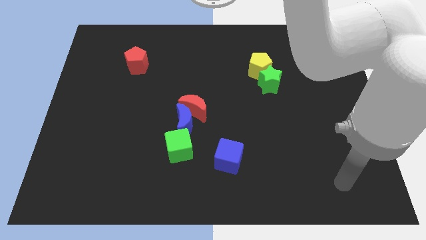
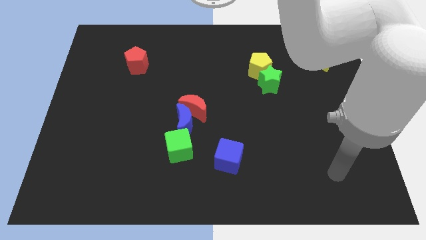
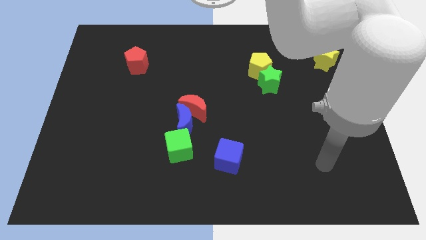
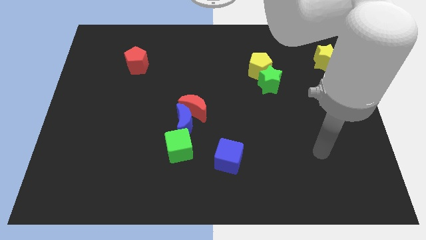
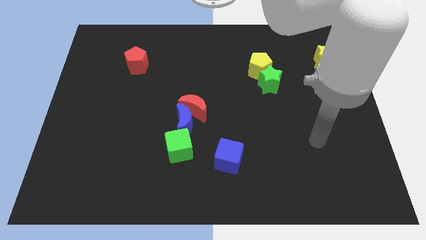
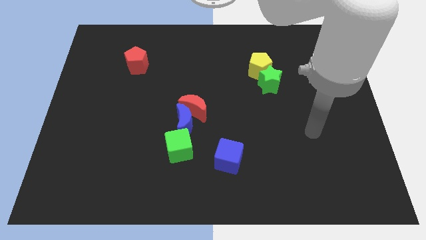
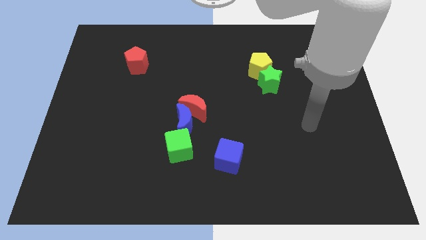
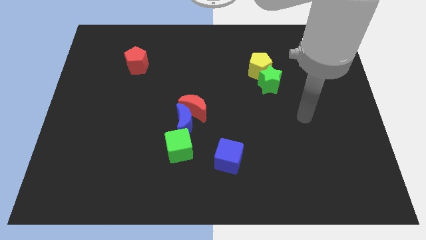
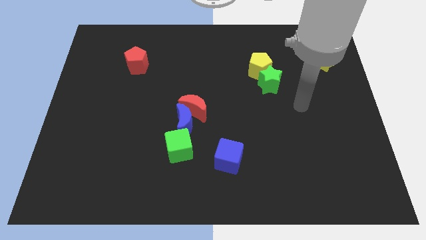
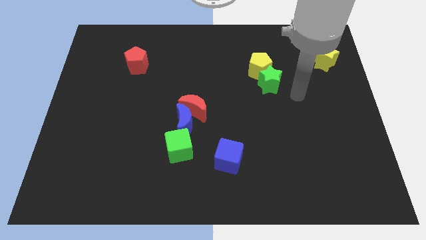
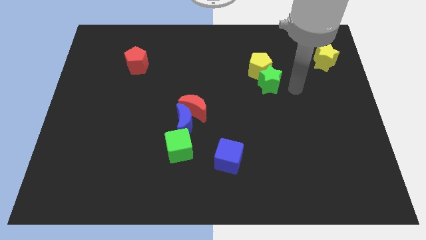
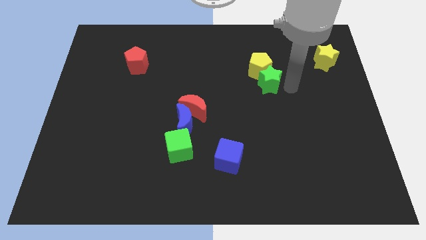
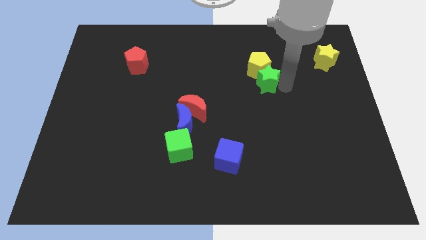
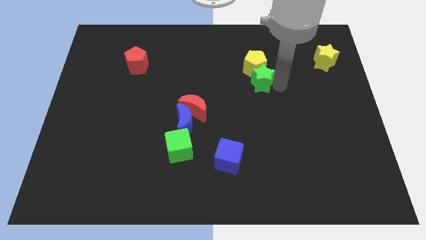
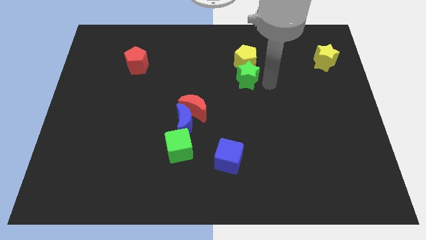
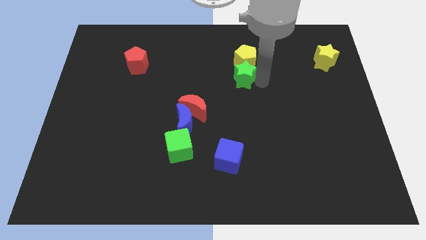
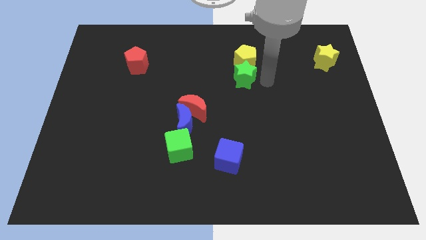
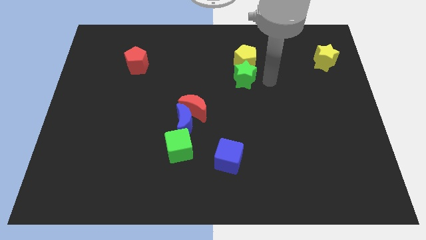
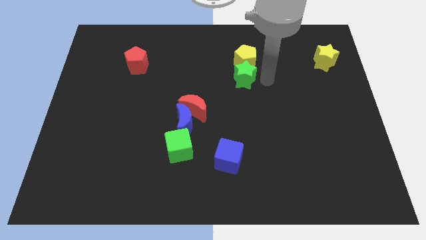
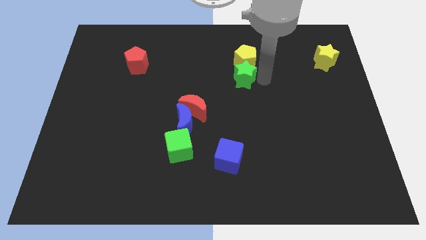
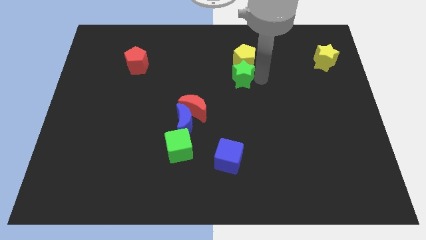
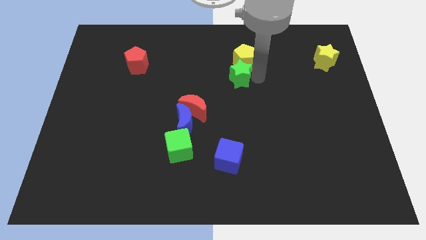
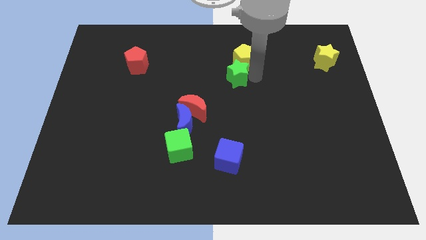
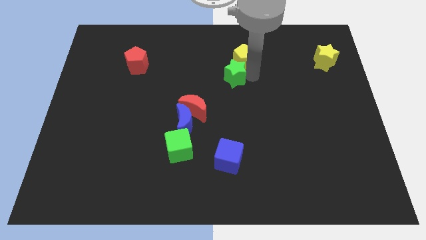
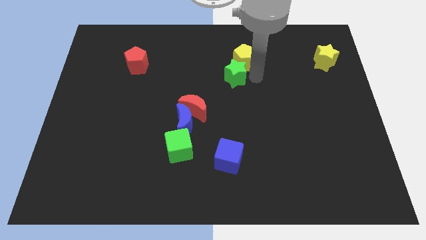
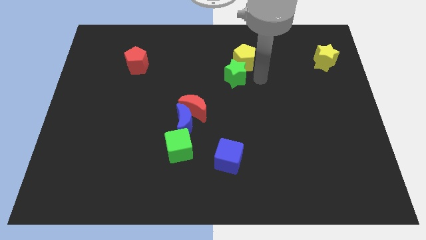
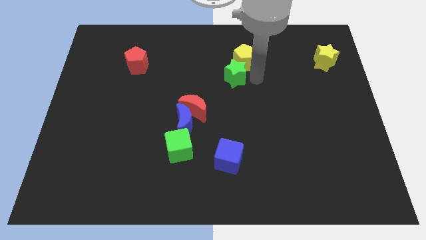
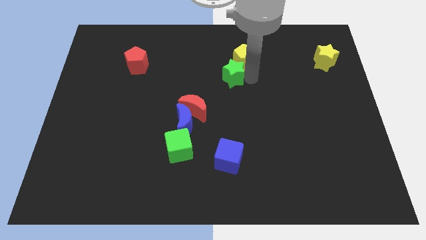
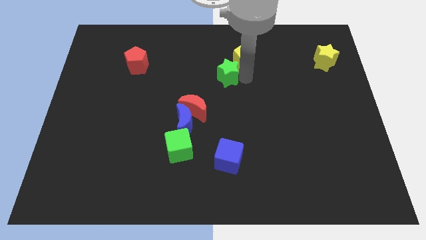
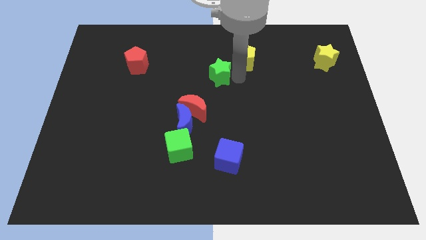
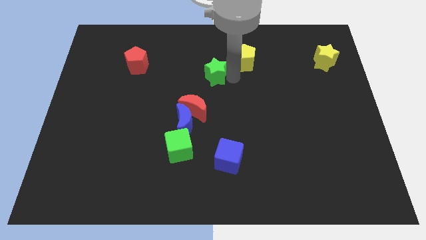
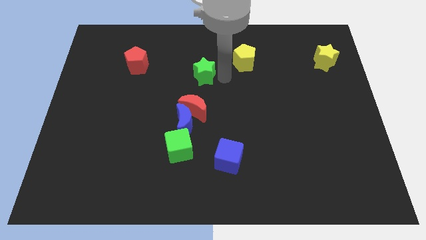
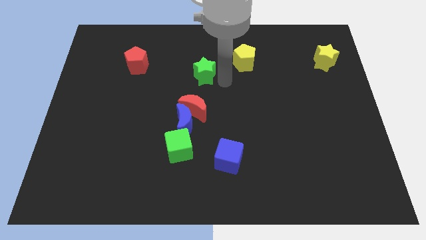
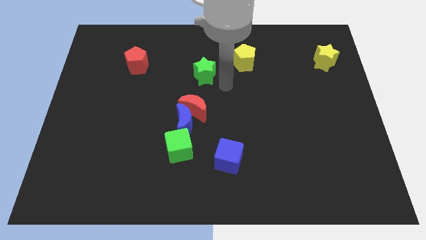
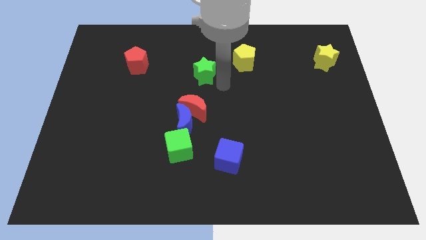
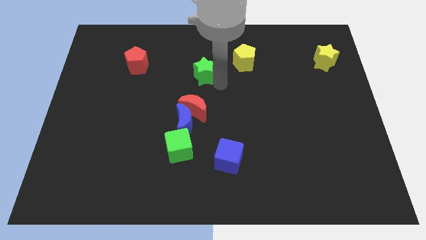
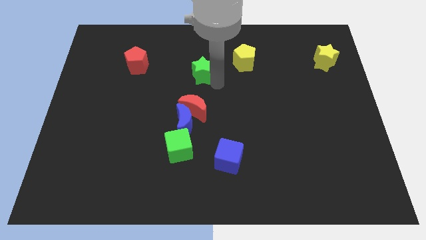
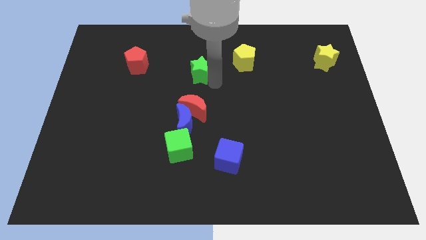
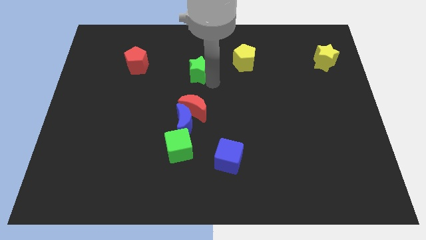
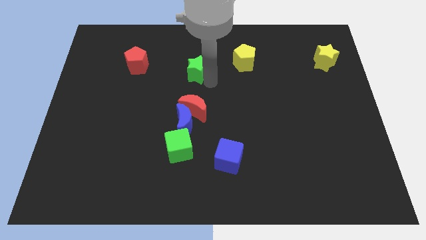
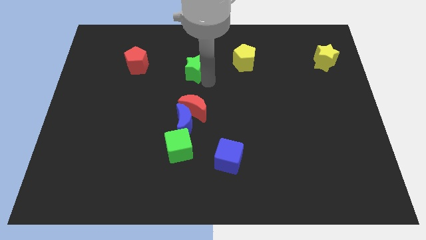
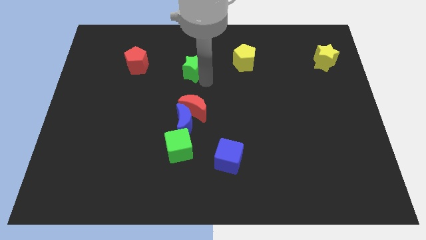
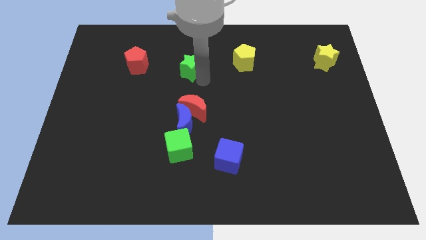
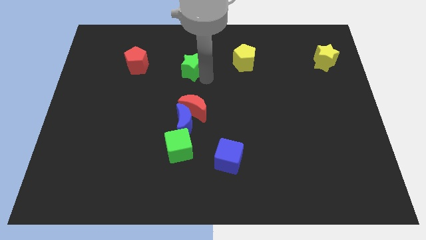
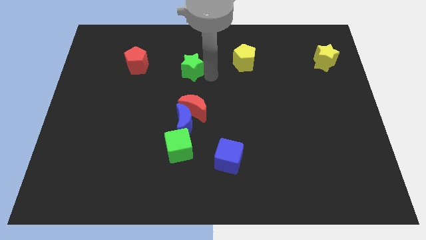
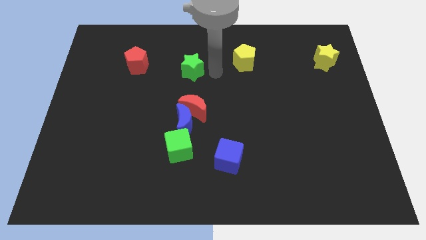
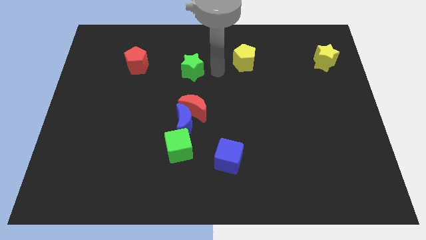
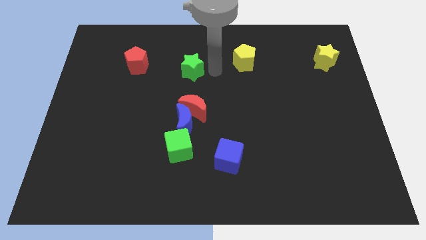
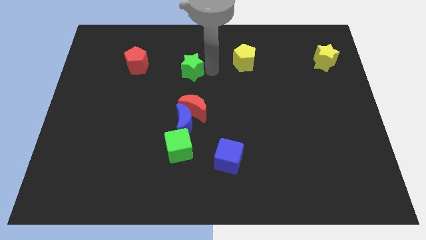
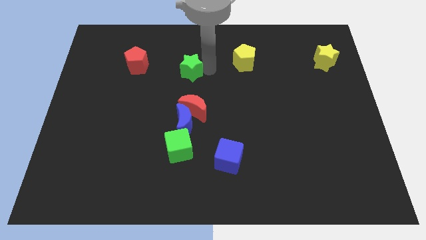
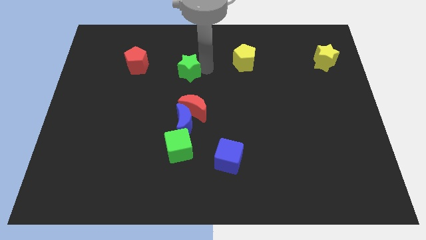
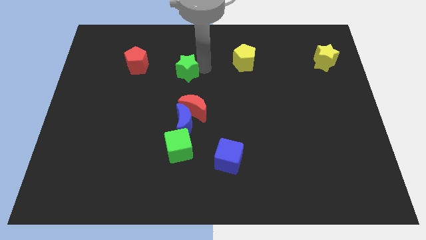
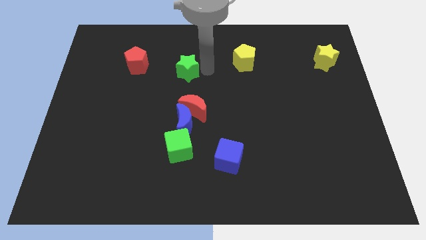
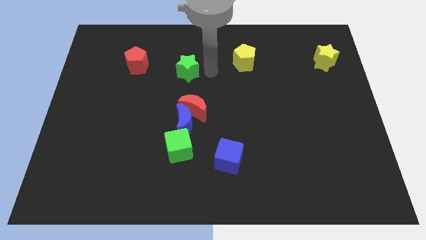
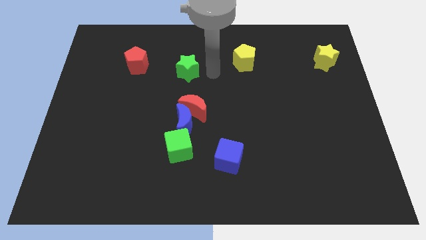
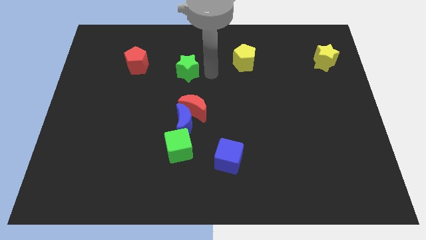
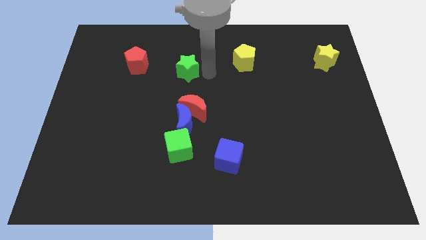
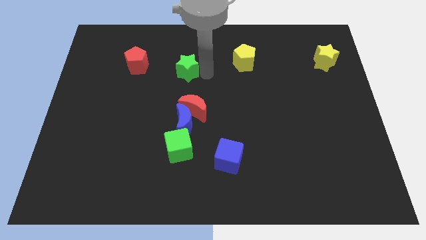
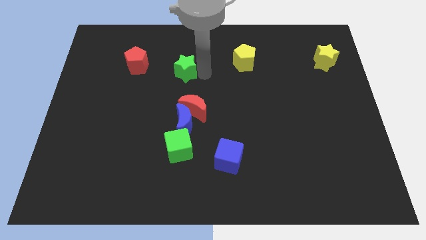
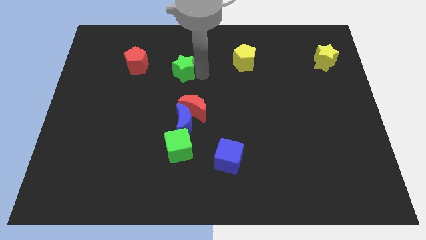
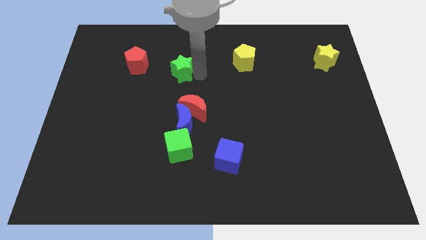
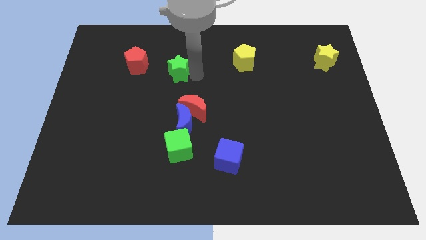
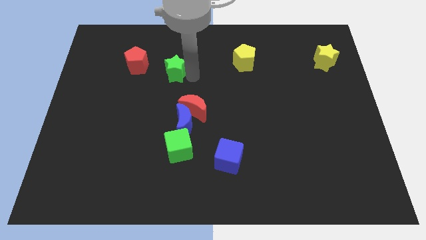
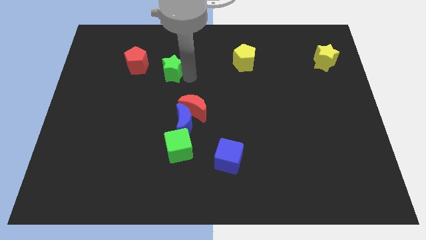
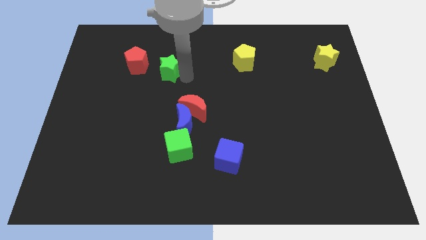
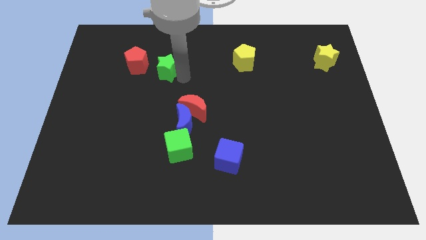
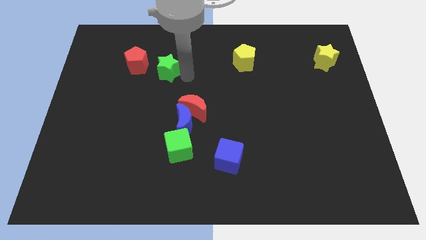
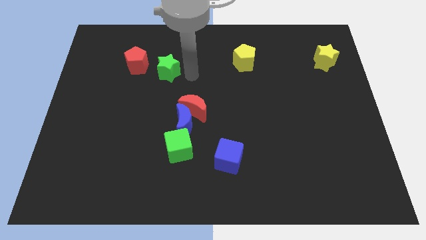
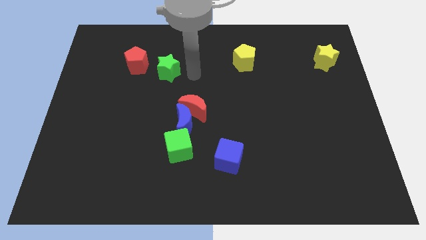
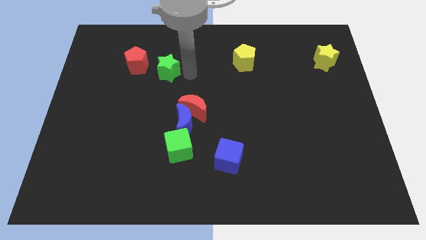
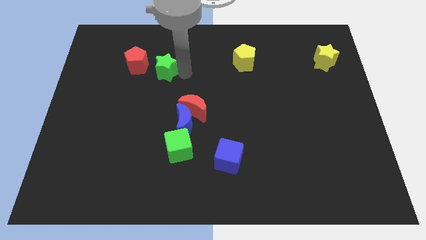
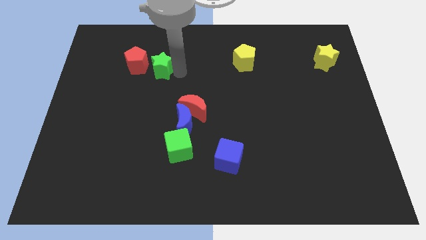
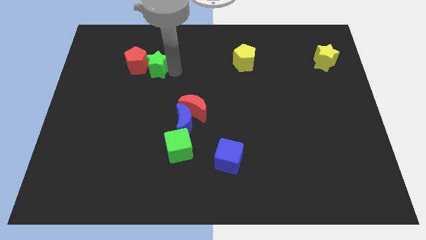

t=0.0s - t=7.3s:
move the green star close to the red pentagon

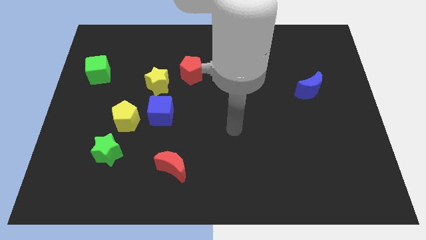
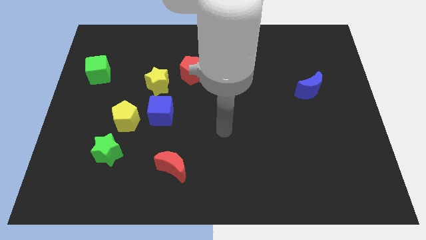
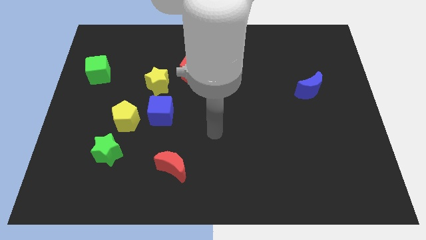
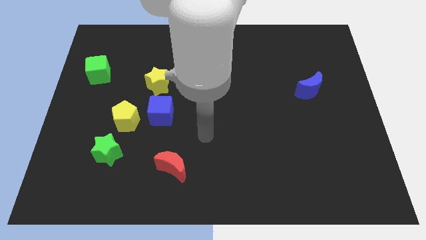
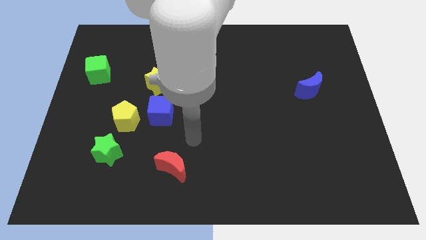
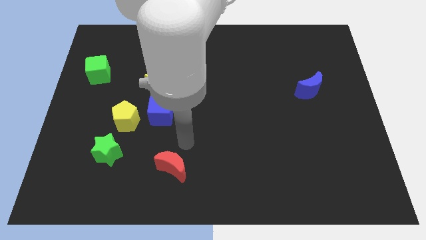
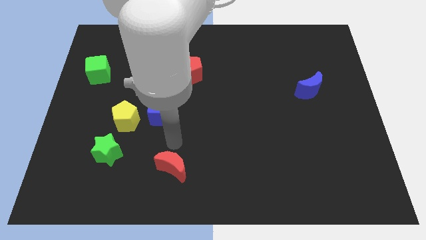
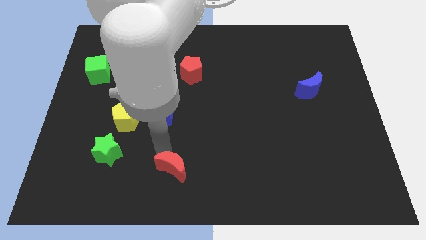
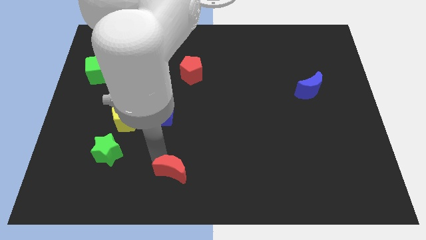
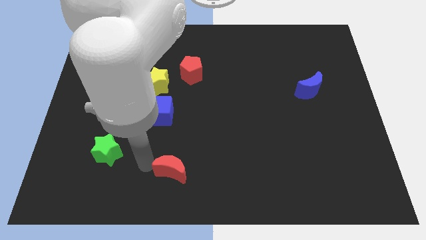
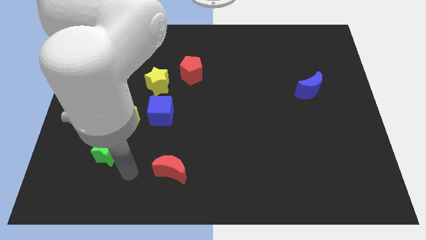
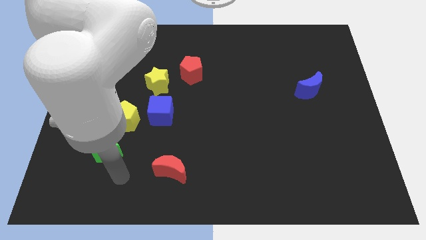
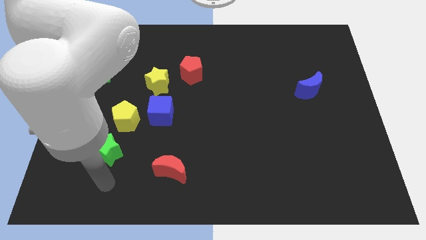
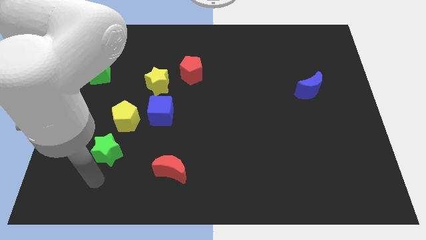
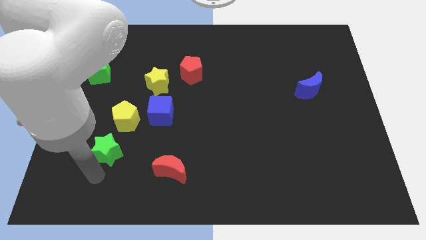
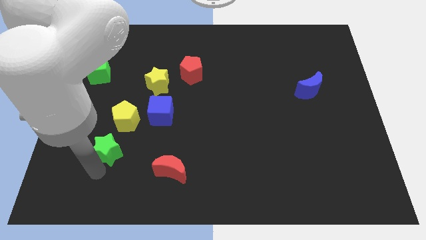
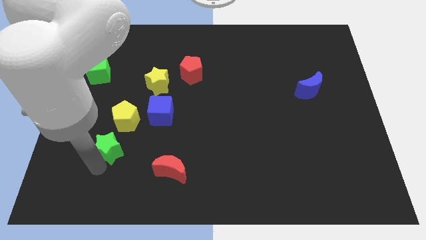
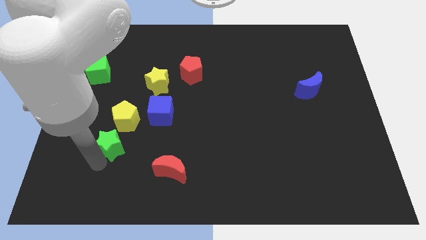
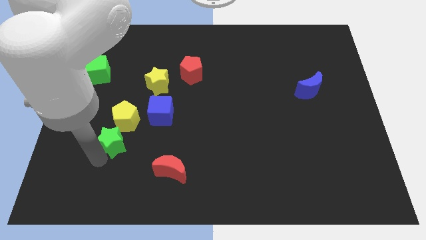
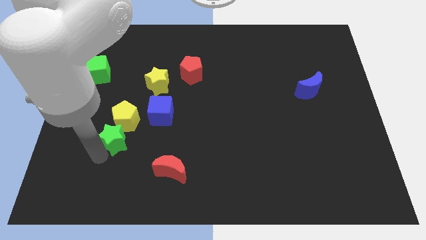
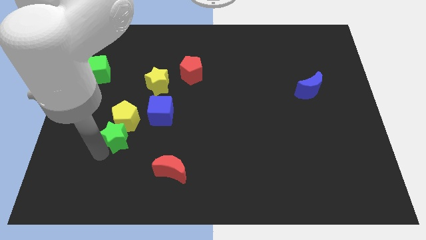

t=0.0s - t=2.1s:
push the green star to the yellow pentagon
